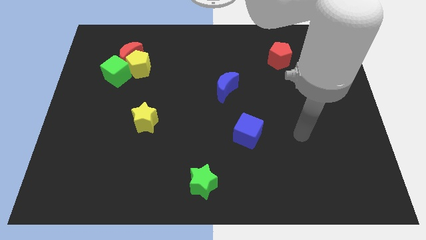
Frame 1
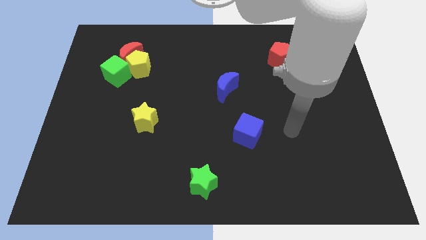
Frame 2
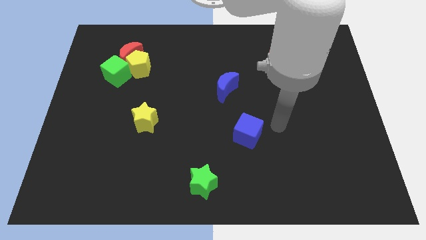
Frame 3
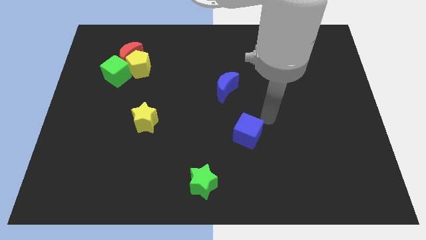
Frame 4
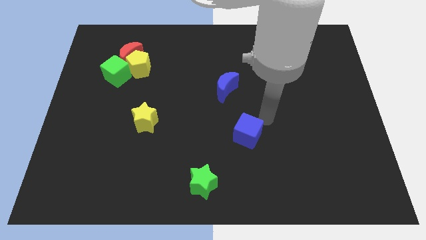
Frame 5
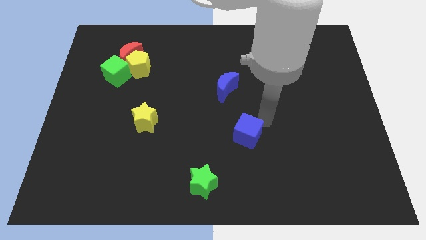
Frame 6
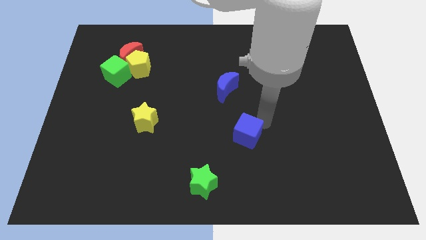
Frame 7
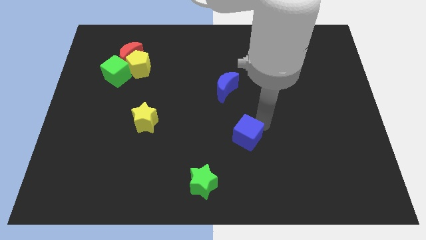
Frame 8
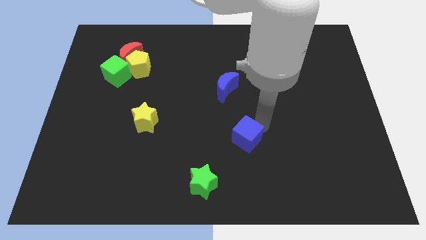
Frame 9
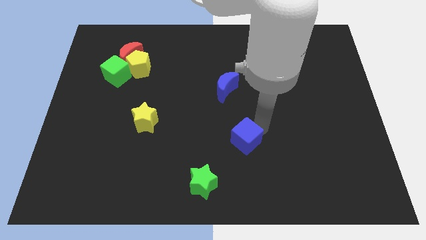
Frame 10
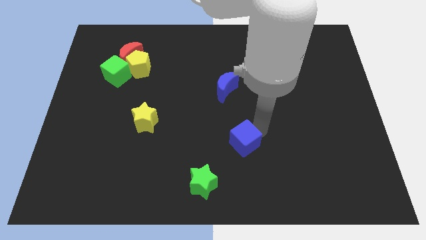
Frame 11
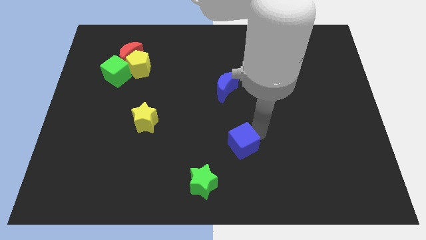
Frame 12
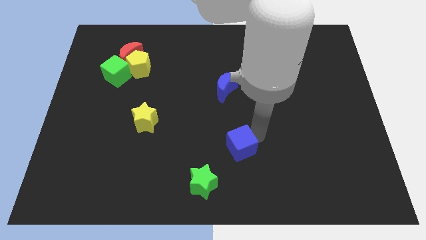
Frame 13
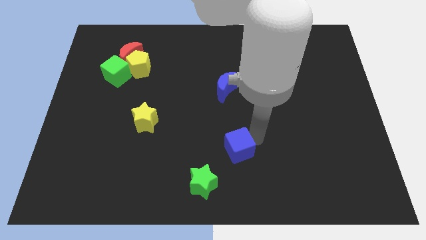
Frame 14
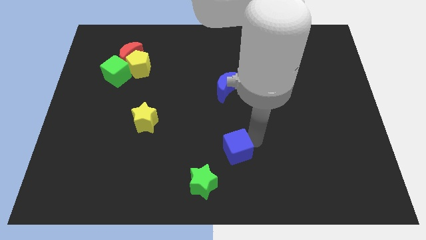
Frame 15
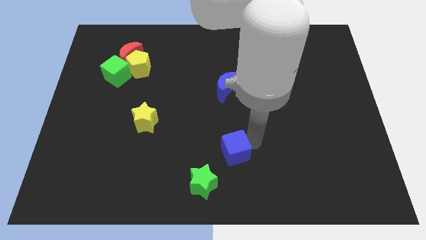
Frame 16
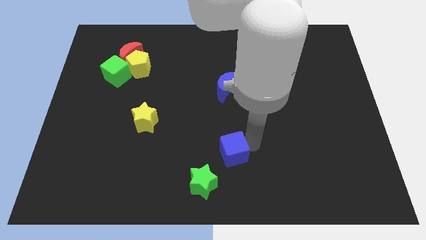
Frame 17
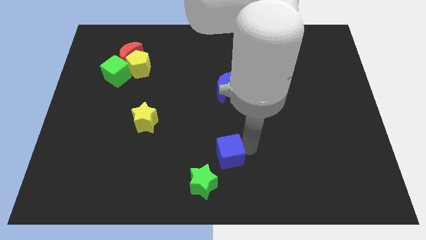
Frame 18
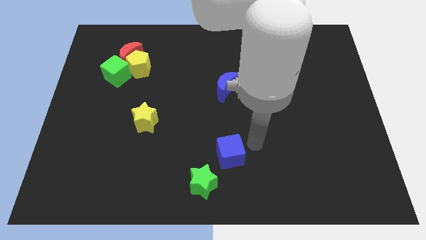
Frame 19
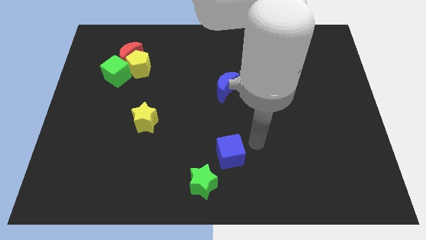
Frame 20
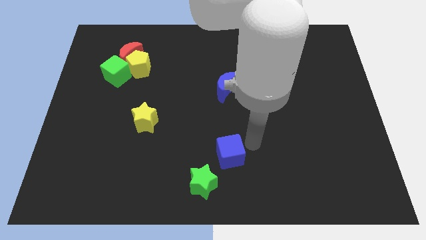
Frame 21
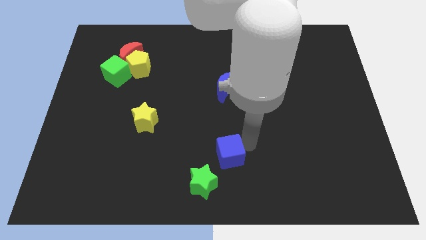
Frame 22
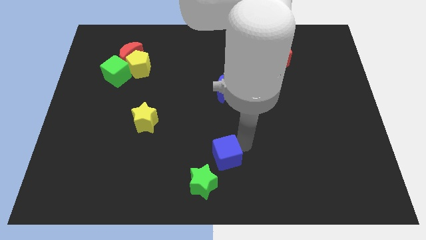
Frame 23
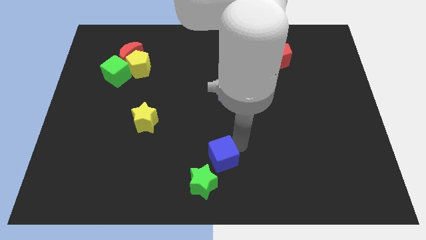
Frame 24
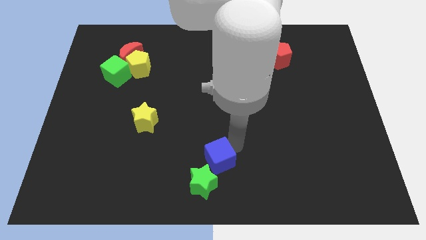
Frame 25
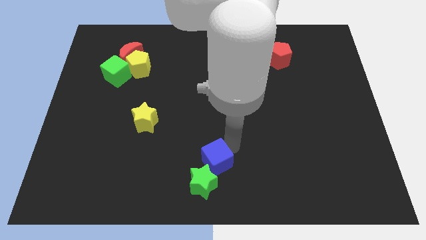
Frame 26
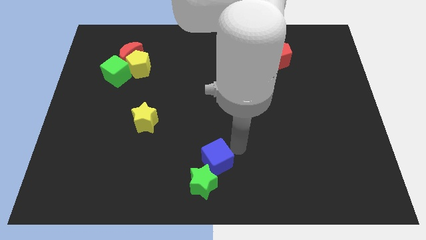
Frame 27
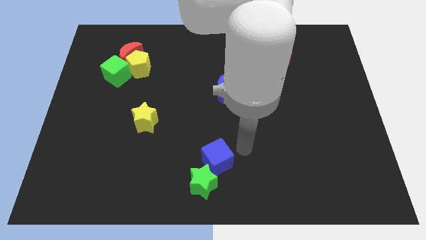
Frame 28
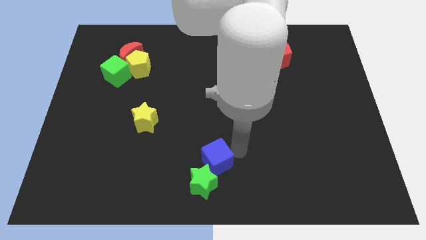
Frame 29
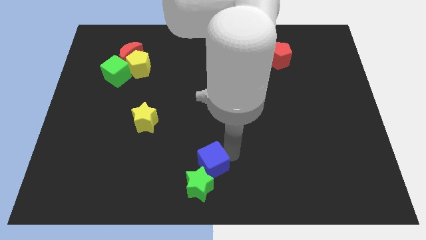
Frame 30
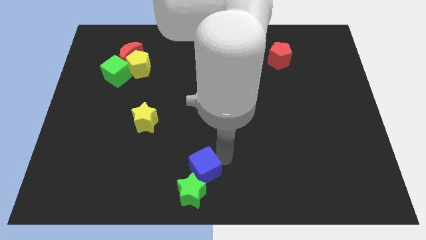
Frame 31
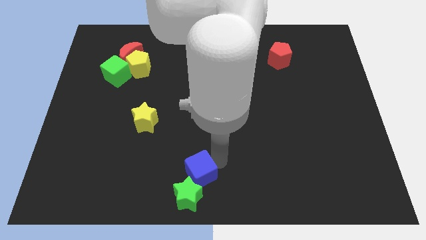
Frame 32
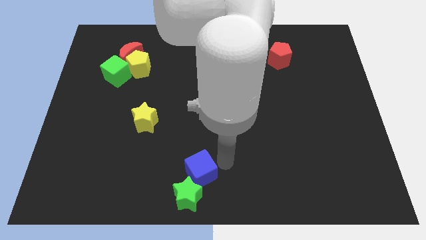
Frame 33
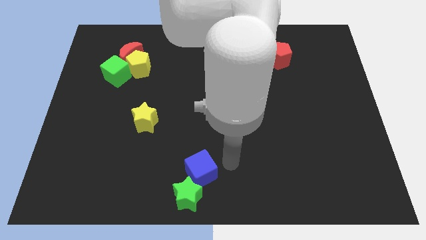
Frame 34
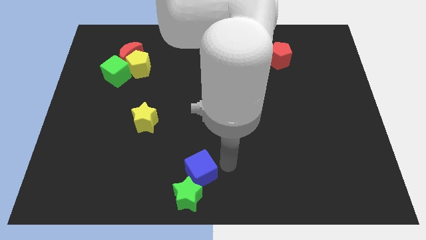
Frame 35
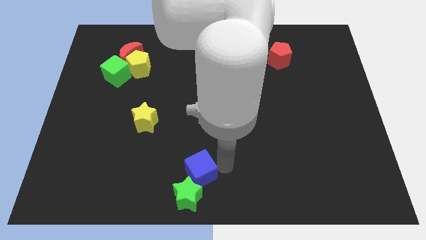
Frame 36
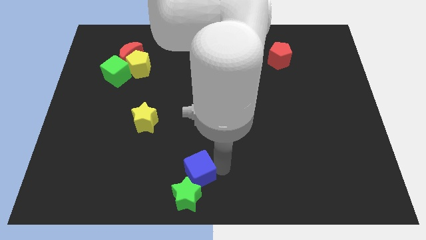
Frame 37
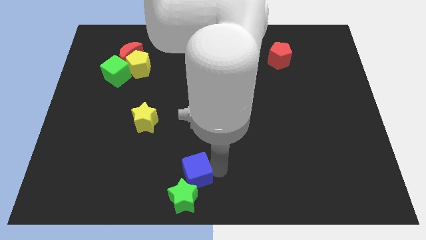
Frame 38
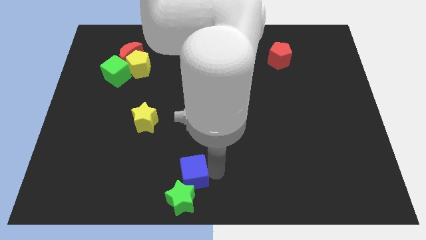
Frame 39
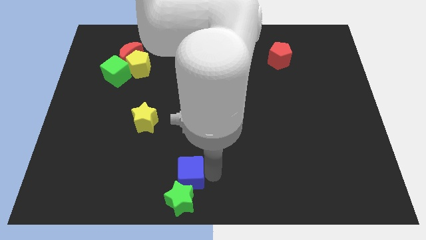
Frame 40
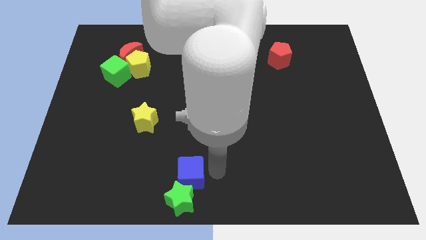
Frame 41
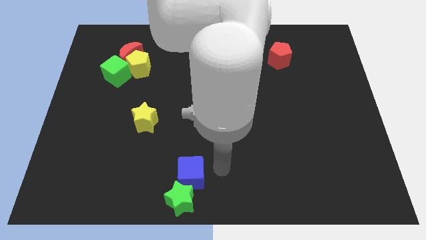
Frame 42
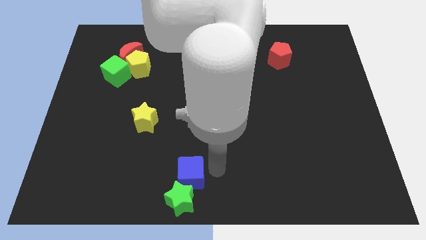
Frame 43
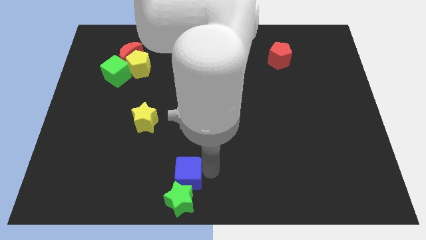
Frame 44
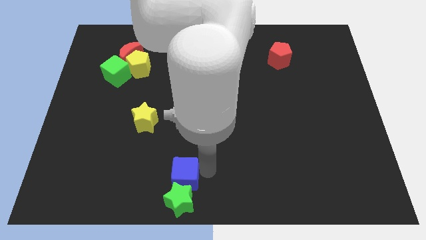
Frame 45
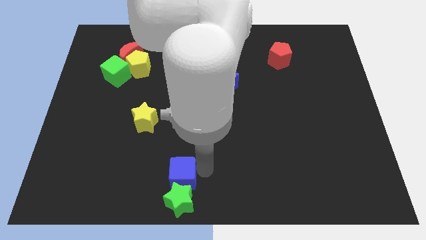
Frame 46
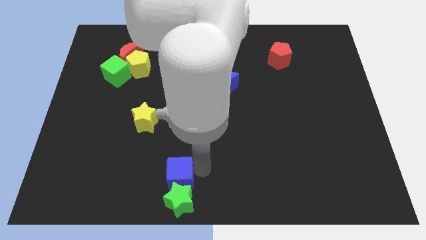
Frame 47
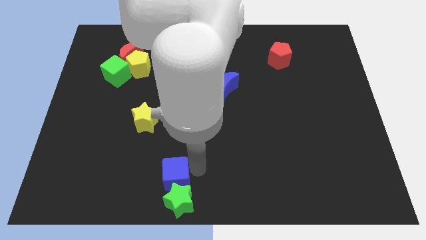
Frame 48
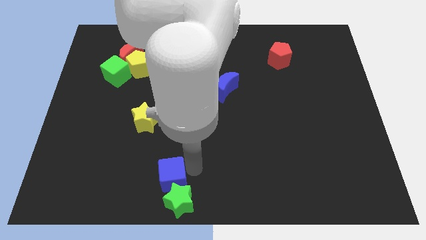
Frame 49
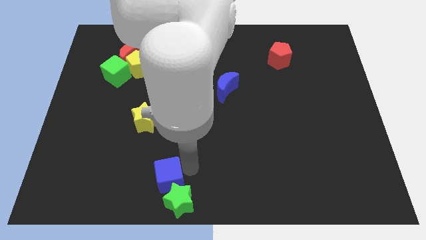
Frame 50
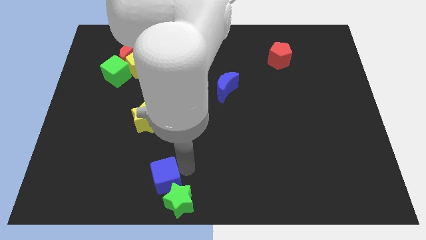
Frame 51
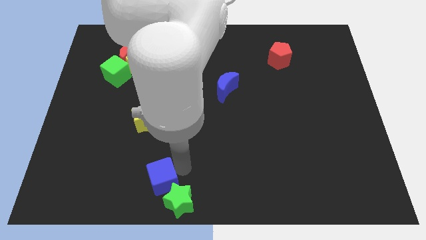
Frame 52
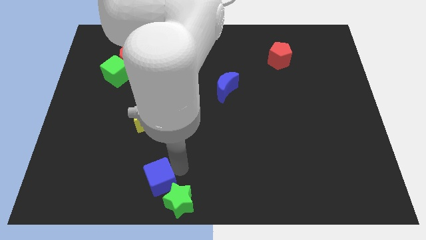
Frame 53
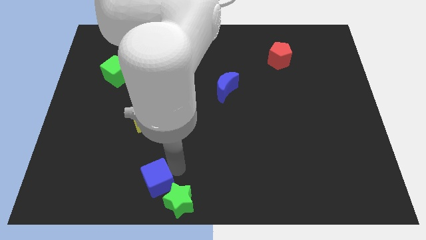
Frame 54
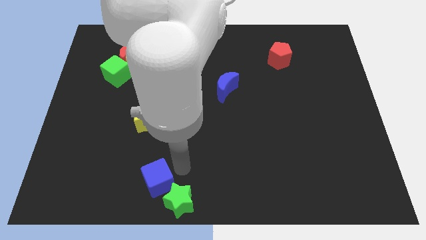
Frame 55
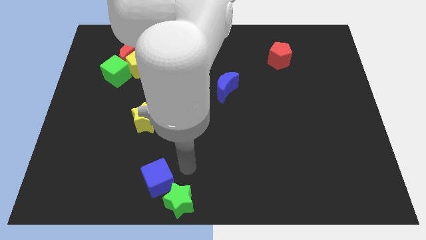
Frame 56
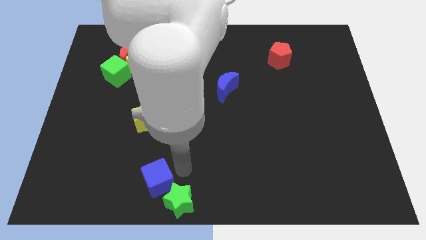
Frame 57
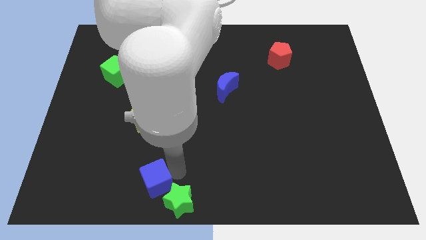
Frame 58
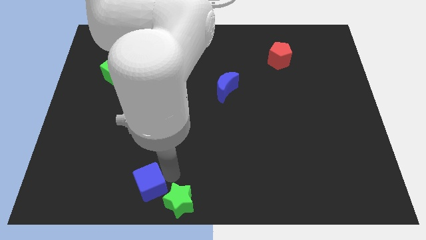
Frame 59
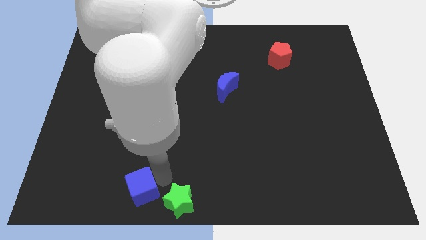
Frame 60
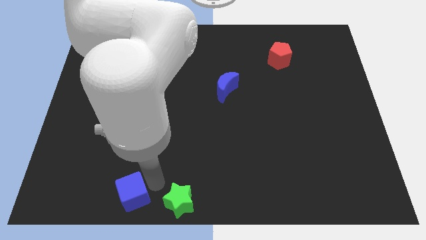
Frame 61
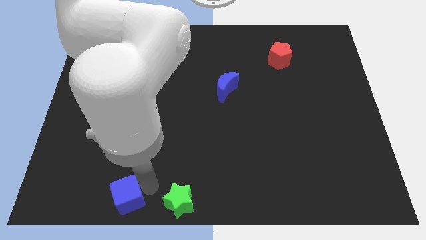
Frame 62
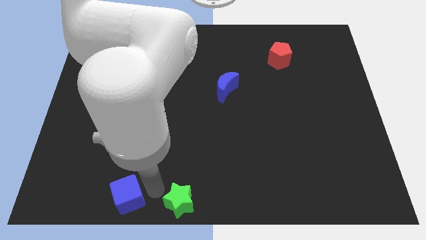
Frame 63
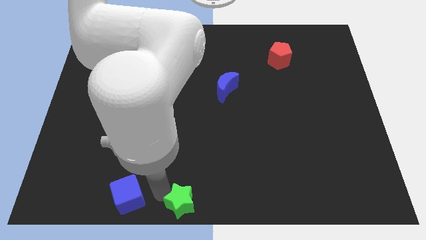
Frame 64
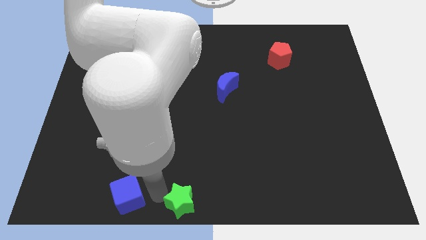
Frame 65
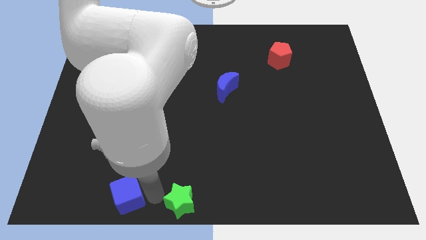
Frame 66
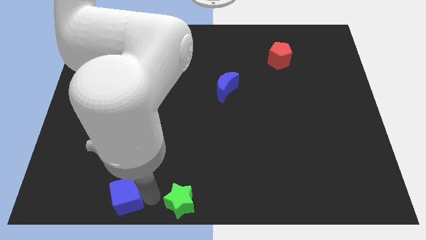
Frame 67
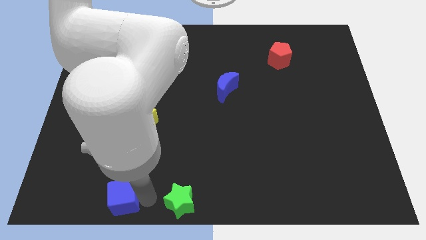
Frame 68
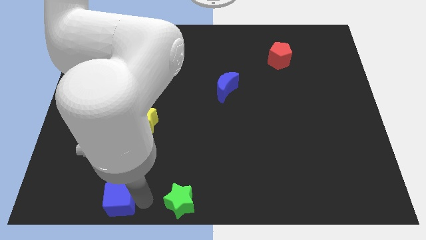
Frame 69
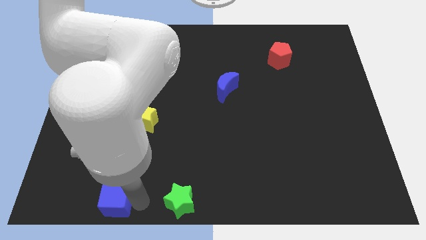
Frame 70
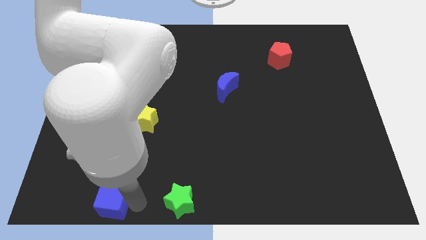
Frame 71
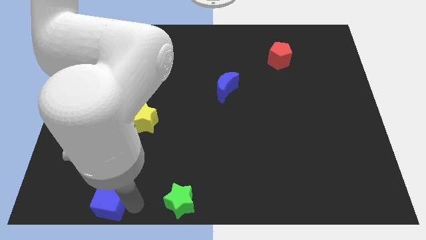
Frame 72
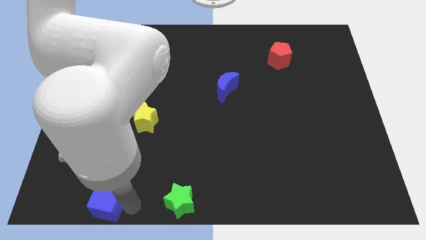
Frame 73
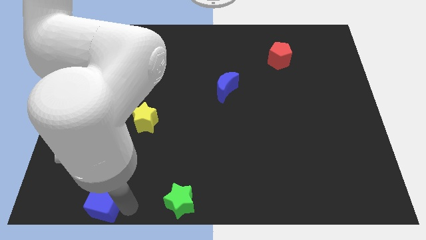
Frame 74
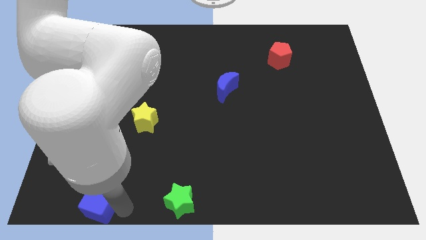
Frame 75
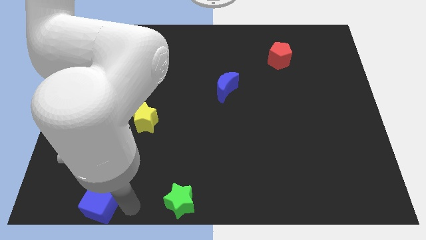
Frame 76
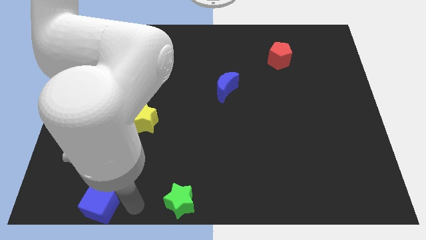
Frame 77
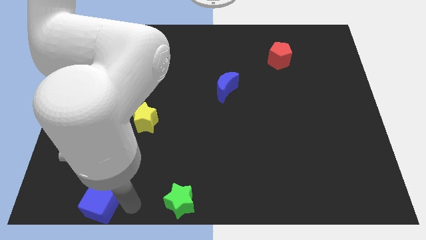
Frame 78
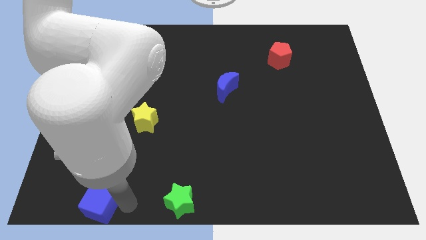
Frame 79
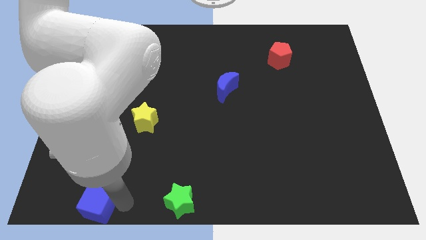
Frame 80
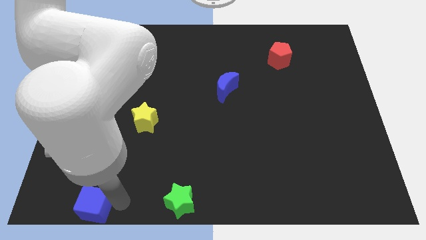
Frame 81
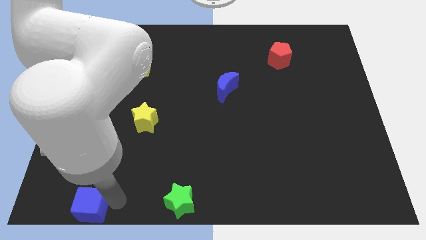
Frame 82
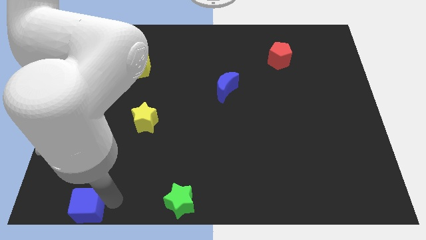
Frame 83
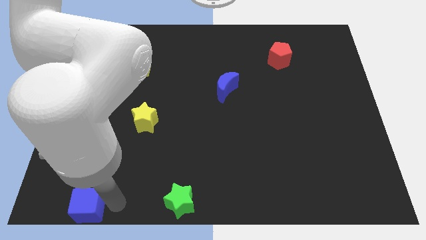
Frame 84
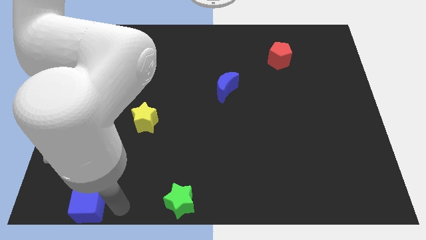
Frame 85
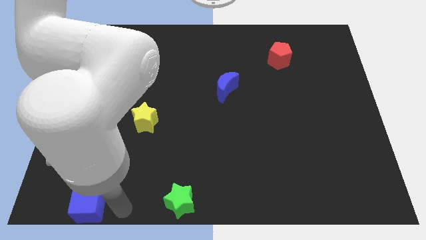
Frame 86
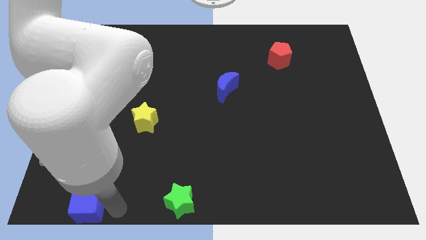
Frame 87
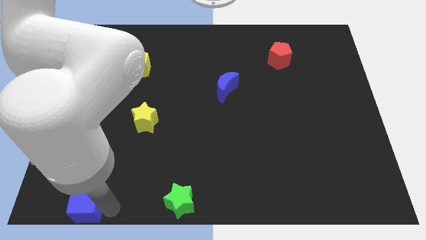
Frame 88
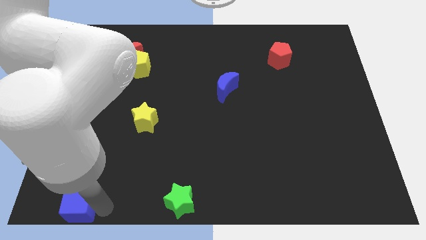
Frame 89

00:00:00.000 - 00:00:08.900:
move the blue cube to the lower left corner
